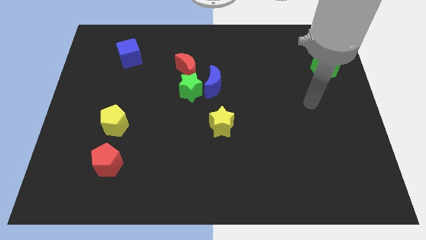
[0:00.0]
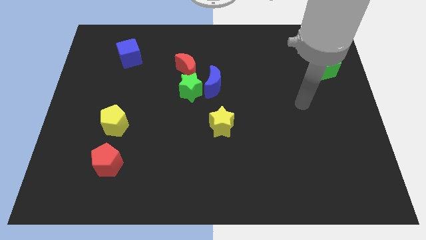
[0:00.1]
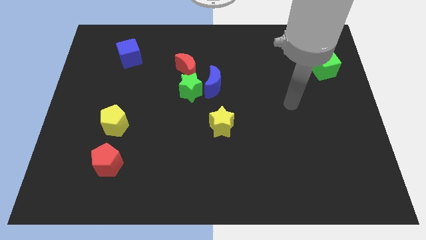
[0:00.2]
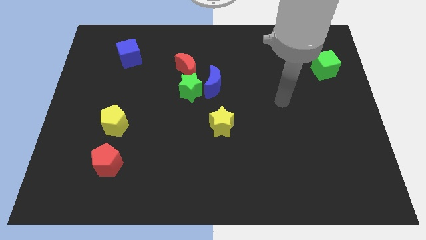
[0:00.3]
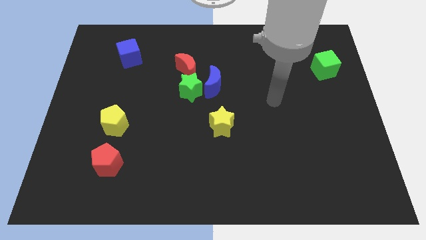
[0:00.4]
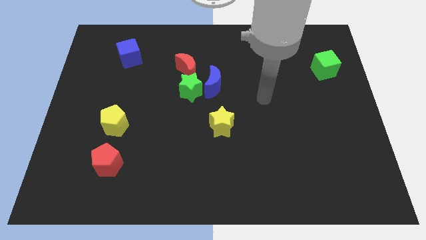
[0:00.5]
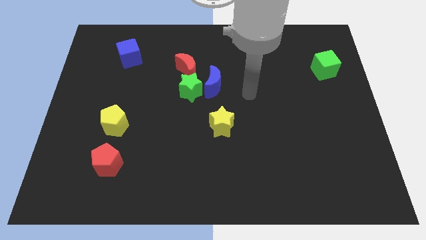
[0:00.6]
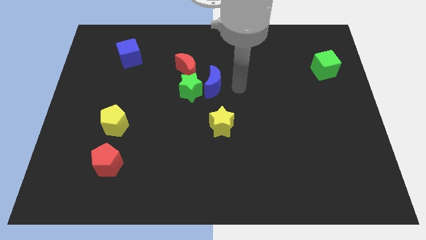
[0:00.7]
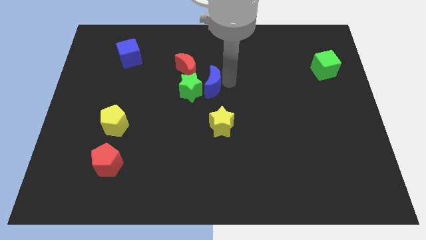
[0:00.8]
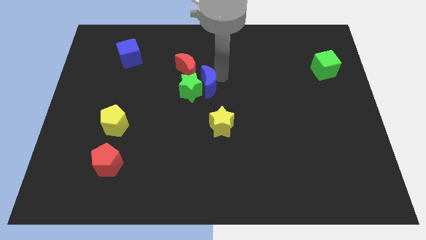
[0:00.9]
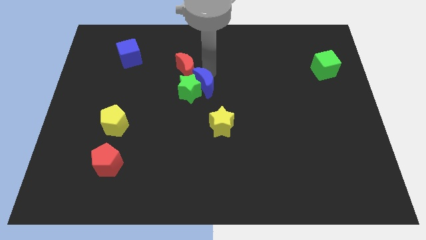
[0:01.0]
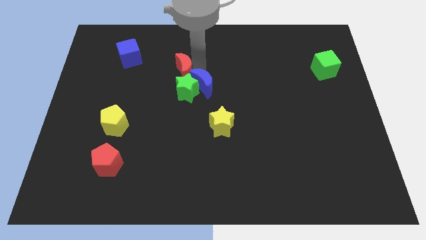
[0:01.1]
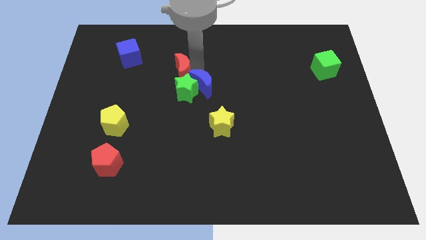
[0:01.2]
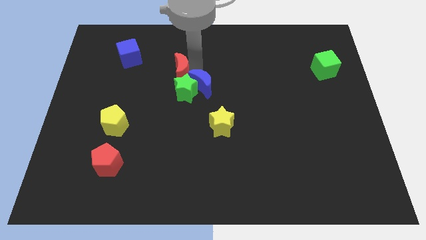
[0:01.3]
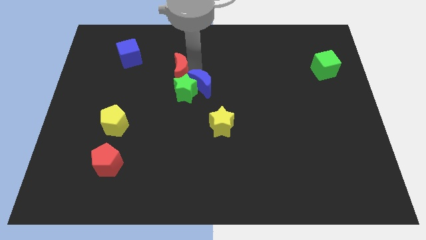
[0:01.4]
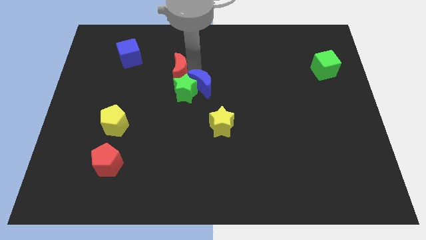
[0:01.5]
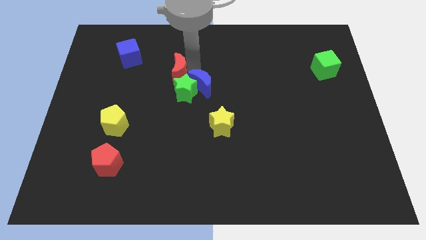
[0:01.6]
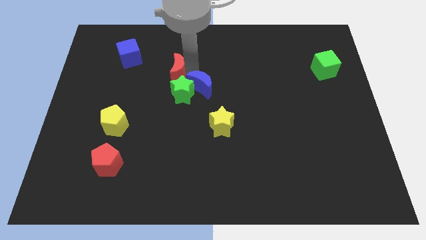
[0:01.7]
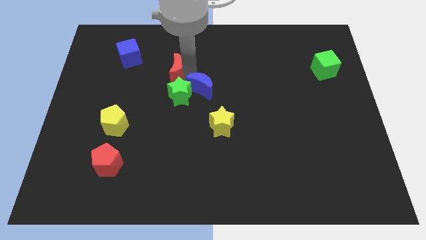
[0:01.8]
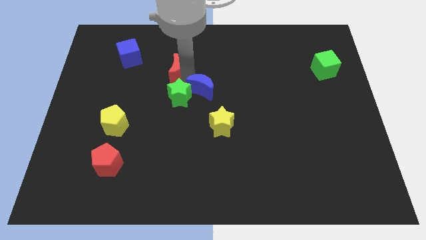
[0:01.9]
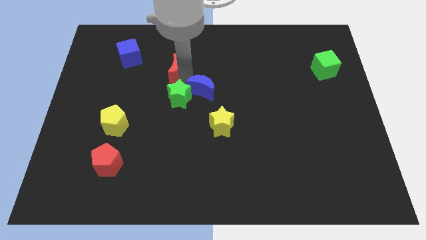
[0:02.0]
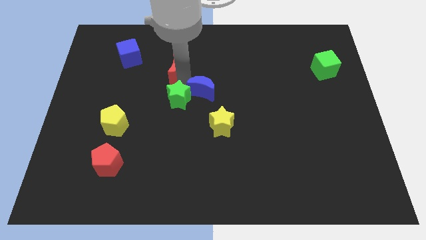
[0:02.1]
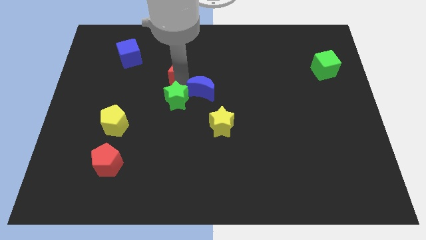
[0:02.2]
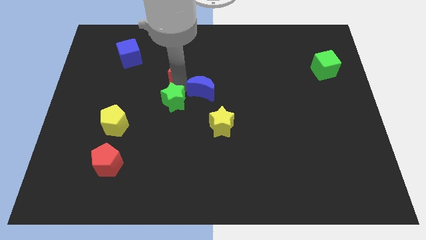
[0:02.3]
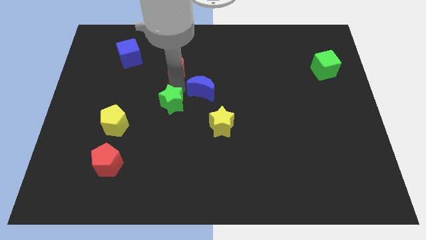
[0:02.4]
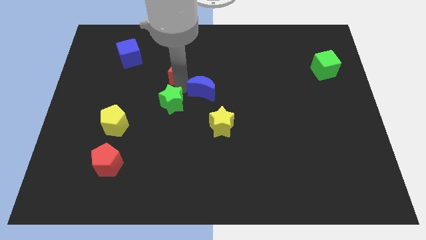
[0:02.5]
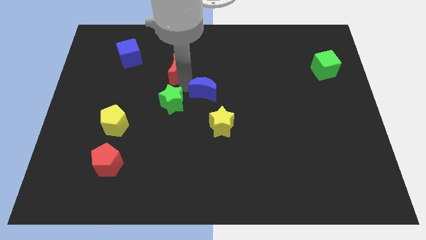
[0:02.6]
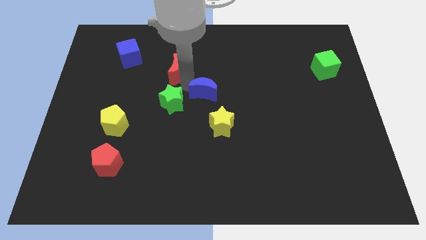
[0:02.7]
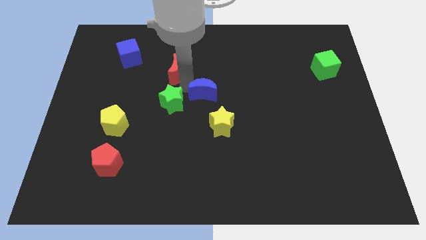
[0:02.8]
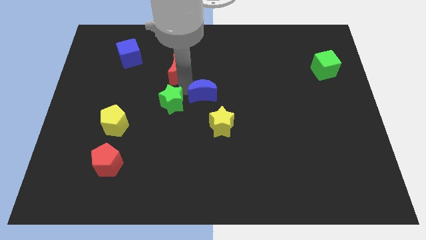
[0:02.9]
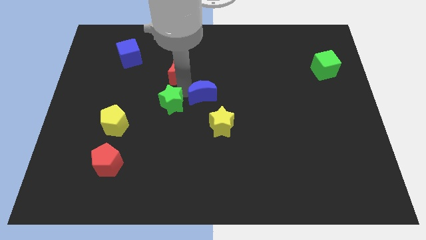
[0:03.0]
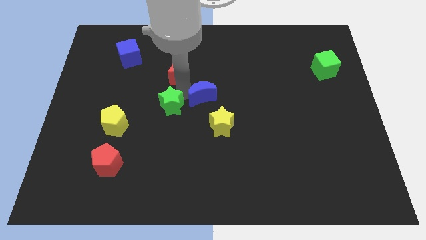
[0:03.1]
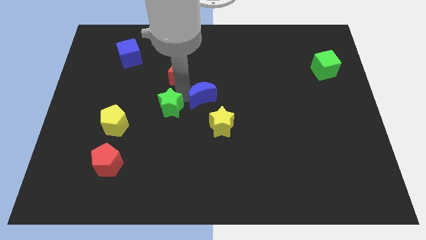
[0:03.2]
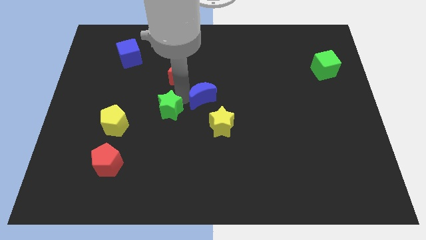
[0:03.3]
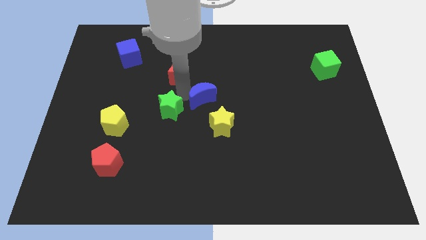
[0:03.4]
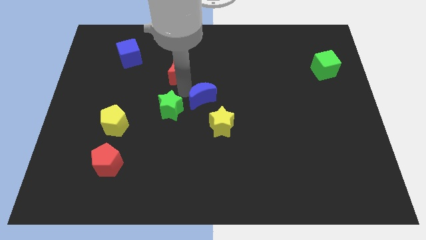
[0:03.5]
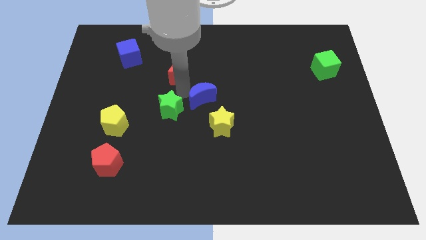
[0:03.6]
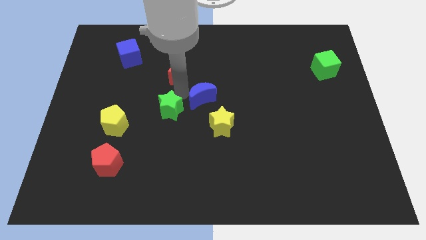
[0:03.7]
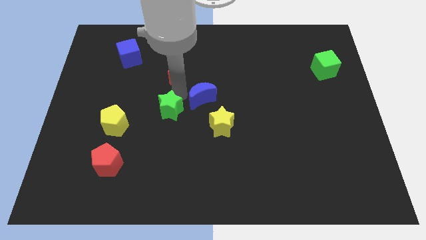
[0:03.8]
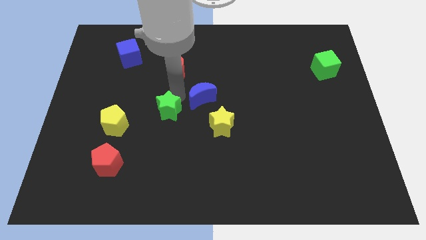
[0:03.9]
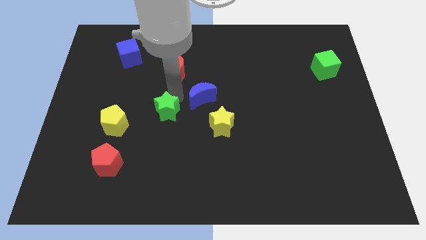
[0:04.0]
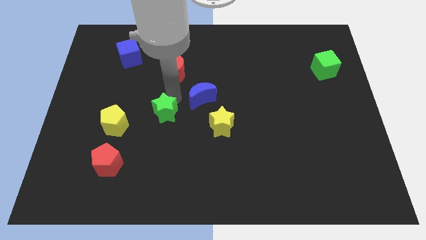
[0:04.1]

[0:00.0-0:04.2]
separate the green star from the blue moon and red moon

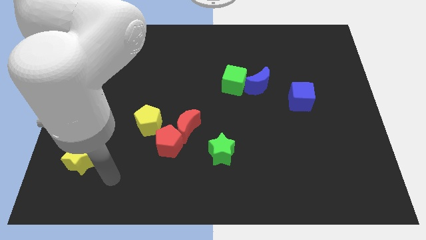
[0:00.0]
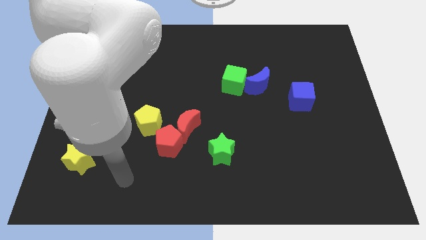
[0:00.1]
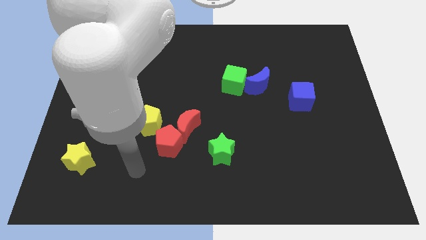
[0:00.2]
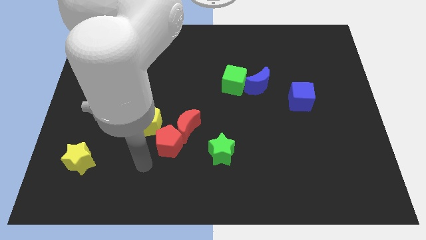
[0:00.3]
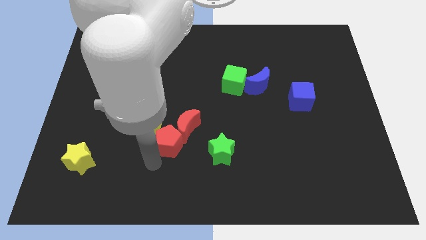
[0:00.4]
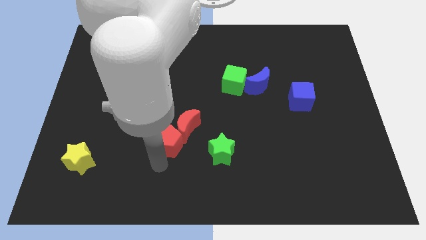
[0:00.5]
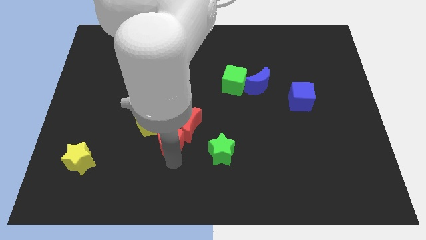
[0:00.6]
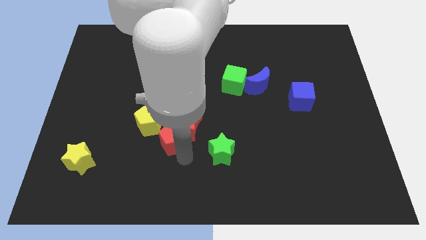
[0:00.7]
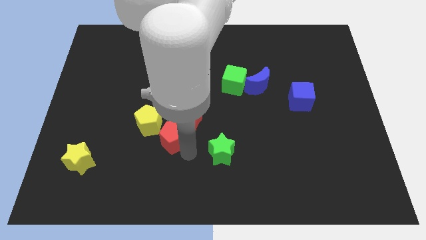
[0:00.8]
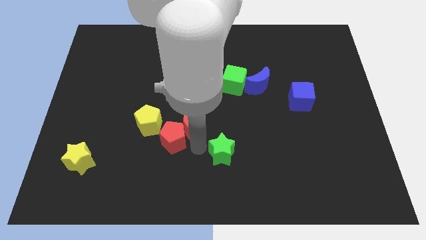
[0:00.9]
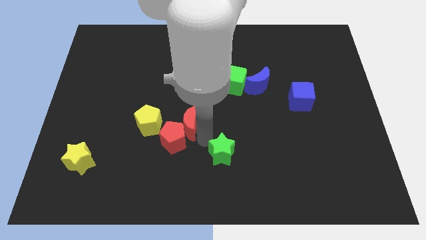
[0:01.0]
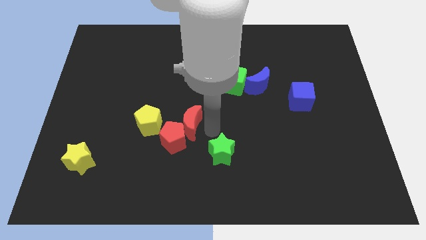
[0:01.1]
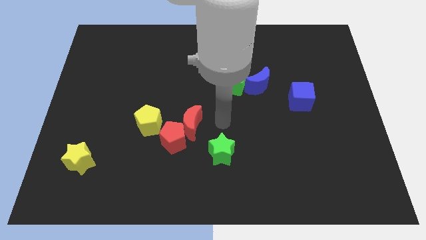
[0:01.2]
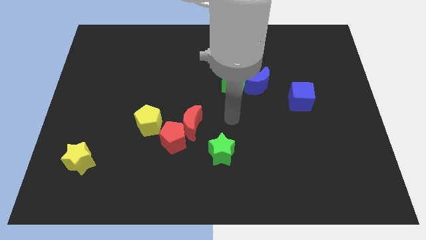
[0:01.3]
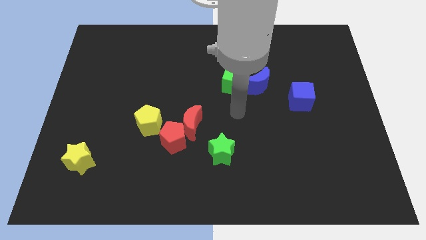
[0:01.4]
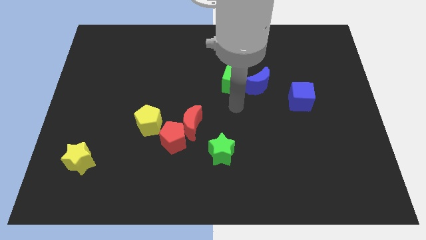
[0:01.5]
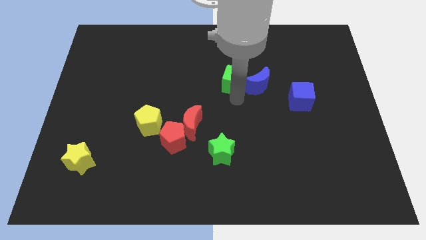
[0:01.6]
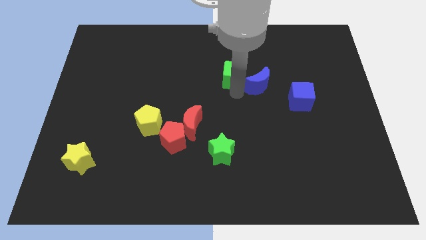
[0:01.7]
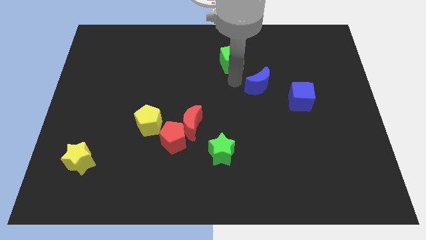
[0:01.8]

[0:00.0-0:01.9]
move the blue moon away from the green cube

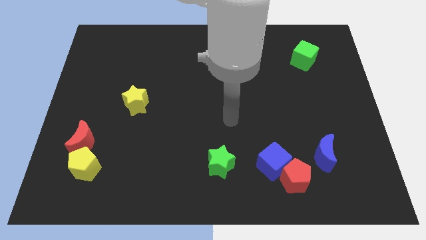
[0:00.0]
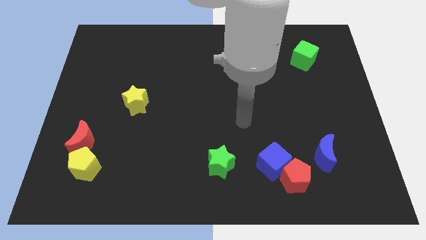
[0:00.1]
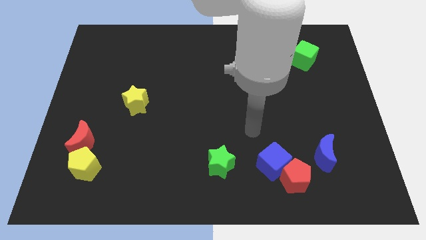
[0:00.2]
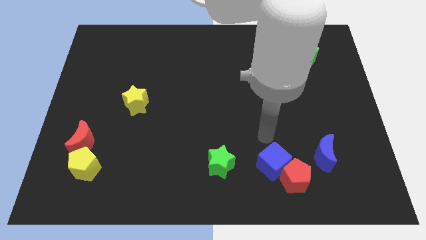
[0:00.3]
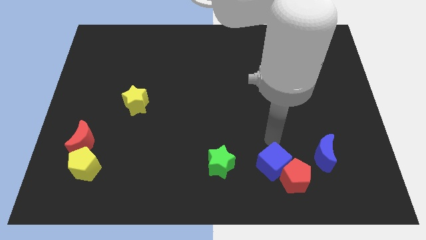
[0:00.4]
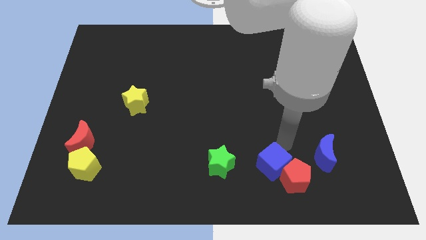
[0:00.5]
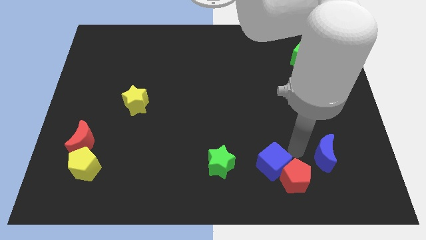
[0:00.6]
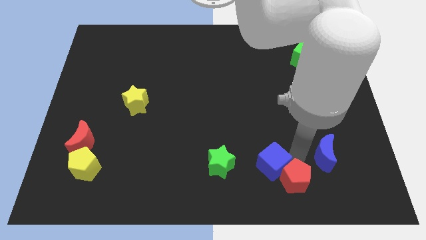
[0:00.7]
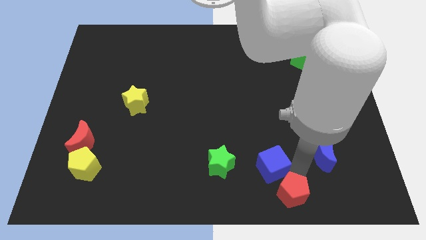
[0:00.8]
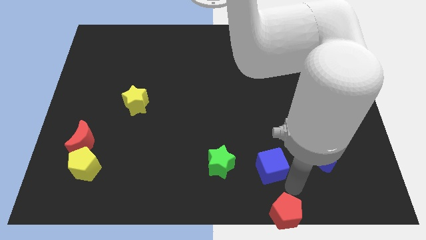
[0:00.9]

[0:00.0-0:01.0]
separate the blue cube from the red pentagon

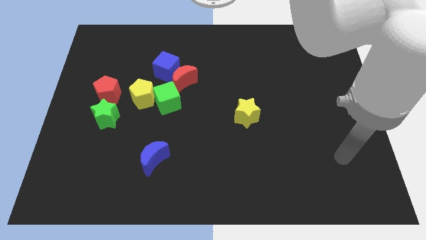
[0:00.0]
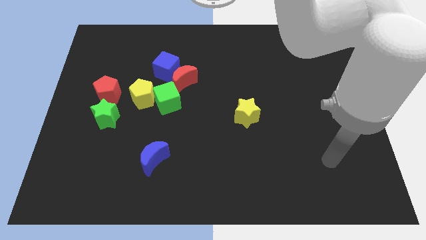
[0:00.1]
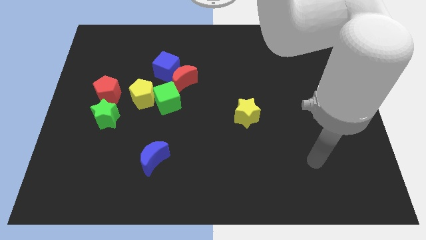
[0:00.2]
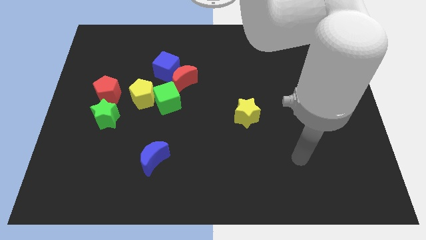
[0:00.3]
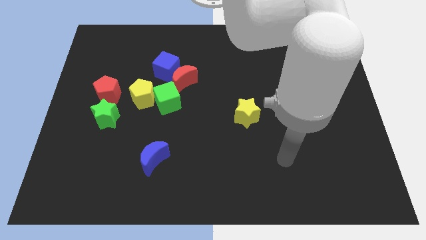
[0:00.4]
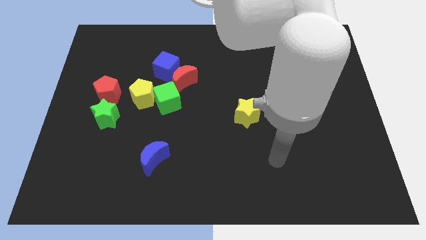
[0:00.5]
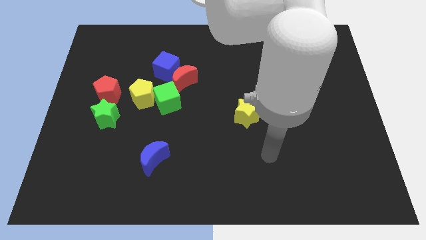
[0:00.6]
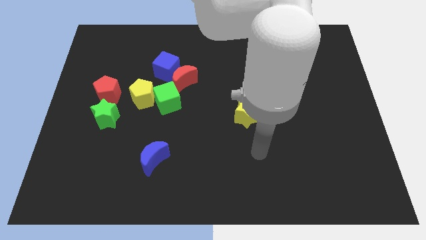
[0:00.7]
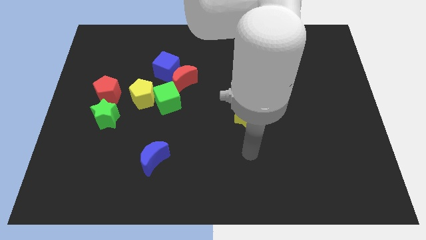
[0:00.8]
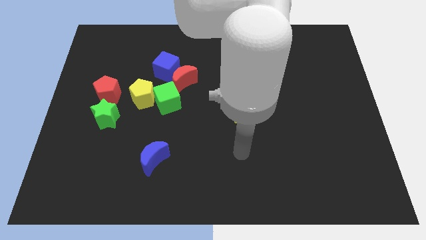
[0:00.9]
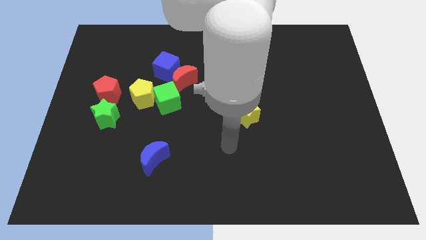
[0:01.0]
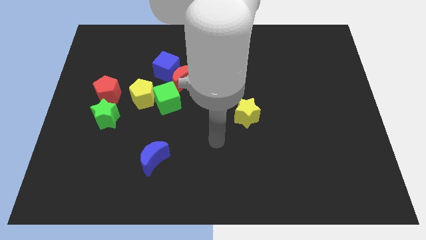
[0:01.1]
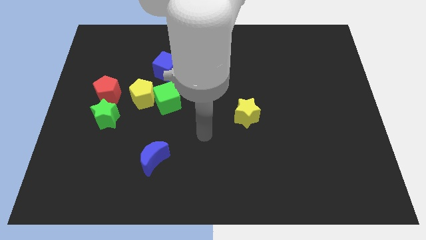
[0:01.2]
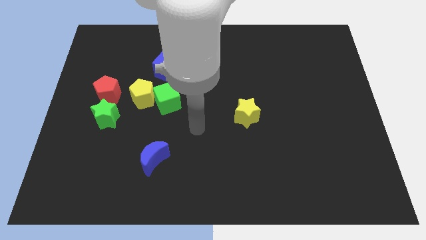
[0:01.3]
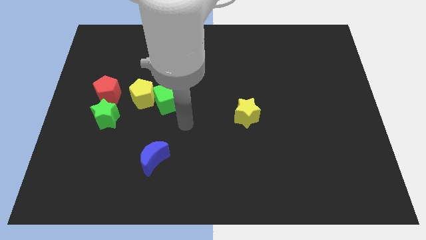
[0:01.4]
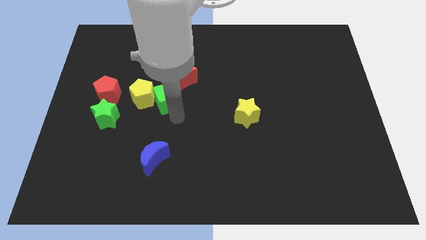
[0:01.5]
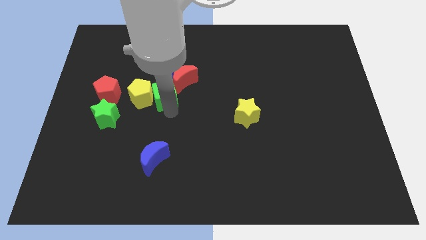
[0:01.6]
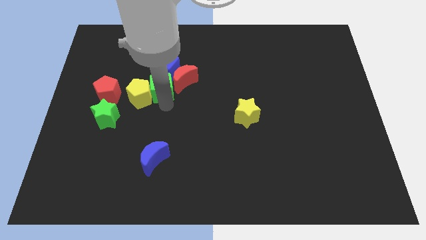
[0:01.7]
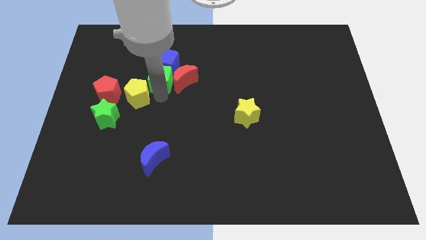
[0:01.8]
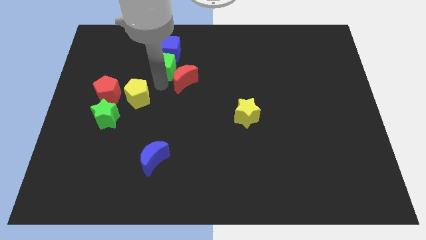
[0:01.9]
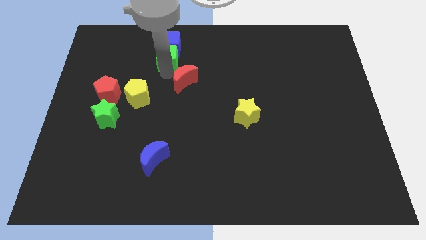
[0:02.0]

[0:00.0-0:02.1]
separate the red moon from the blue cube and green cube

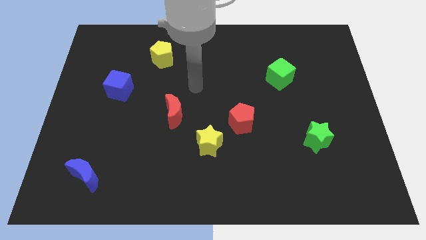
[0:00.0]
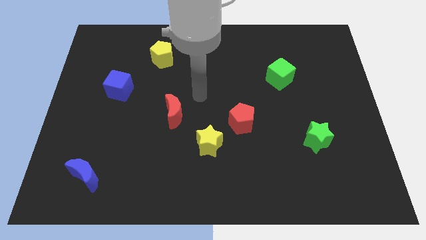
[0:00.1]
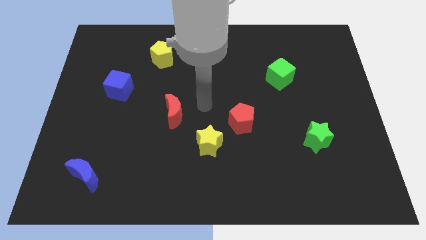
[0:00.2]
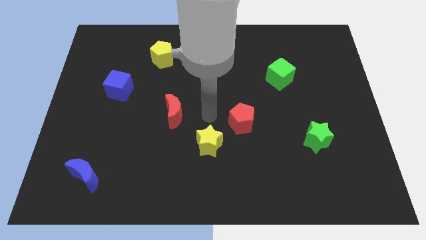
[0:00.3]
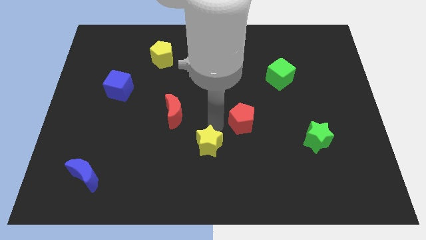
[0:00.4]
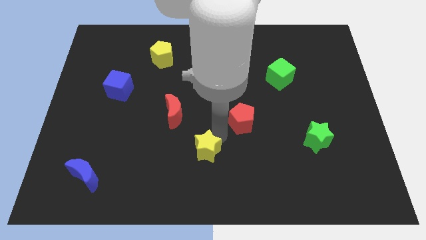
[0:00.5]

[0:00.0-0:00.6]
move the red pentagon away from the yellow star
